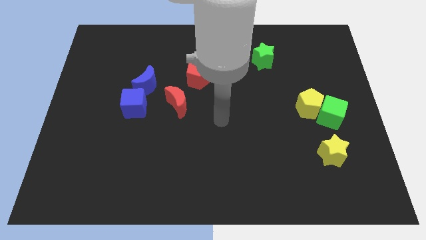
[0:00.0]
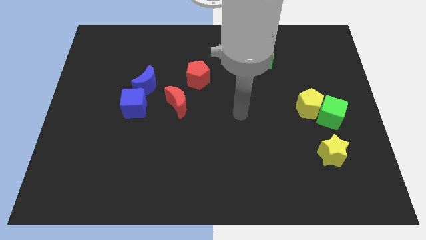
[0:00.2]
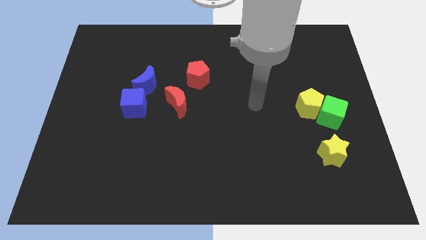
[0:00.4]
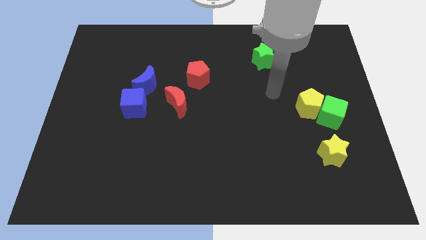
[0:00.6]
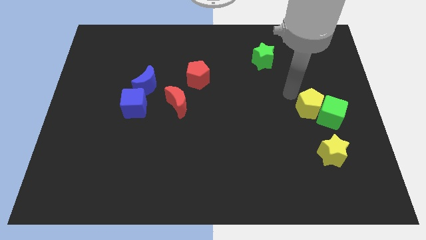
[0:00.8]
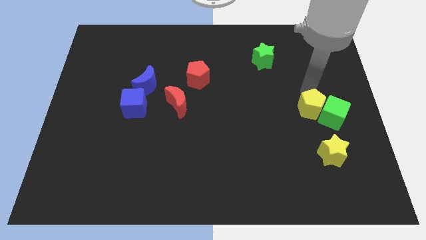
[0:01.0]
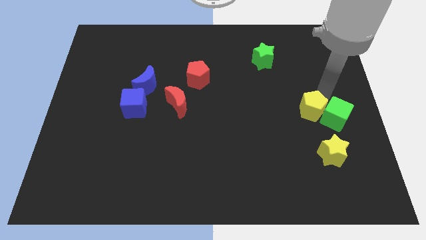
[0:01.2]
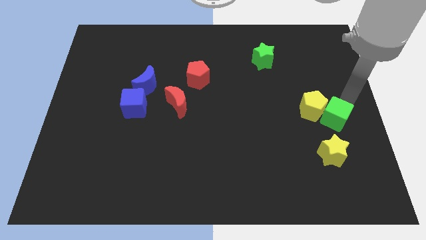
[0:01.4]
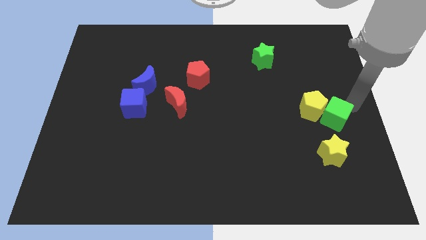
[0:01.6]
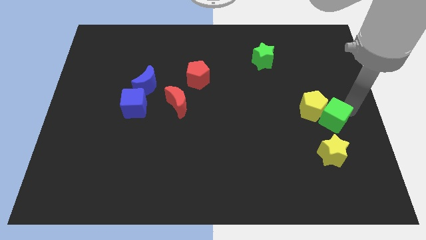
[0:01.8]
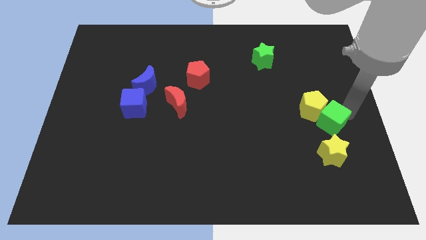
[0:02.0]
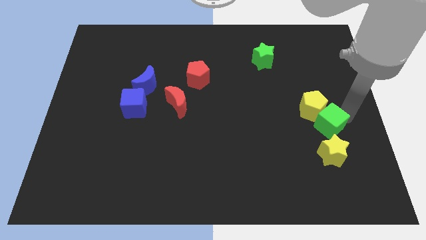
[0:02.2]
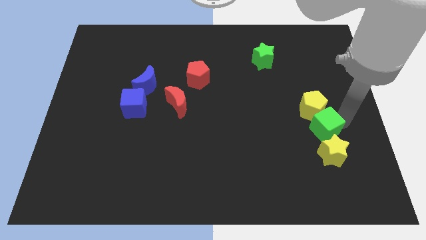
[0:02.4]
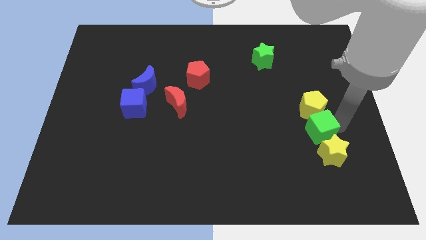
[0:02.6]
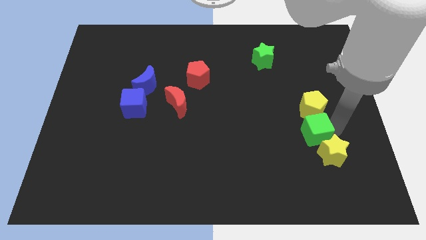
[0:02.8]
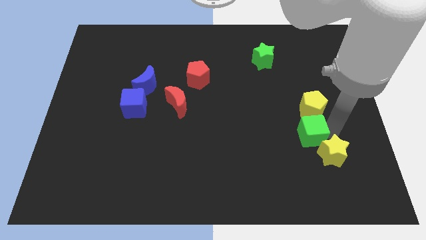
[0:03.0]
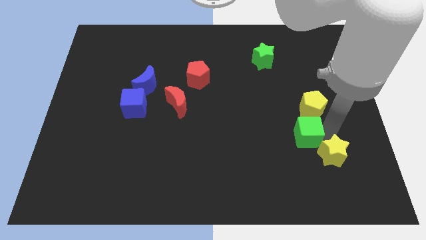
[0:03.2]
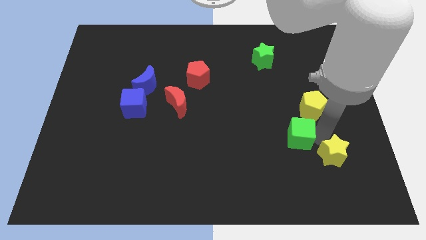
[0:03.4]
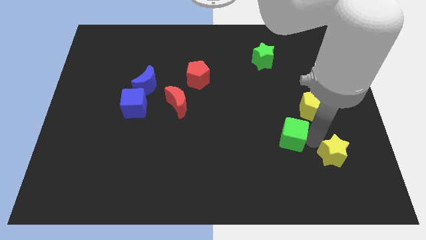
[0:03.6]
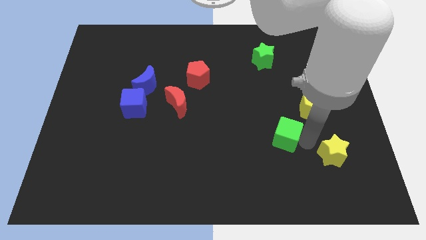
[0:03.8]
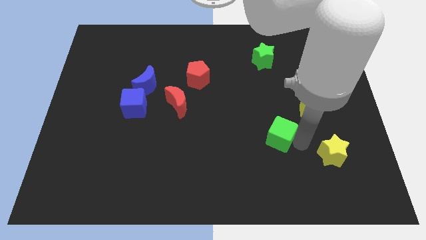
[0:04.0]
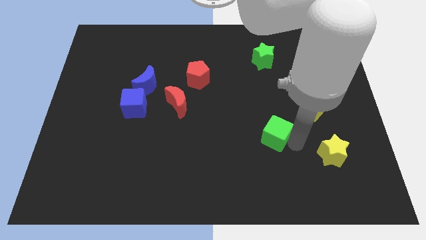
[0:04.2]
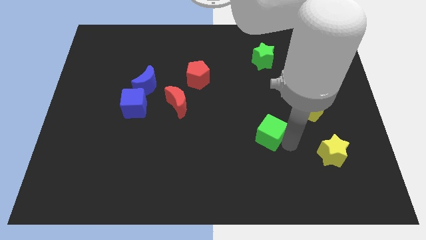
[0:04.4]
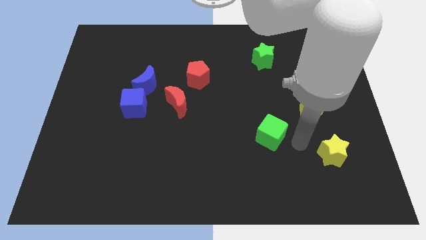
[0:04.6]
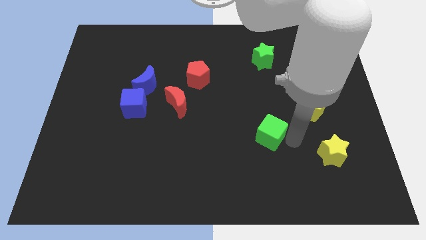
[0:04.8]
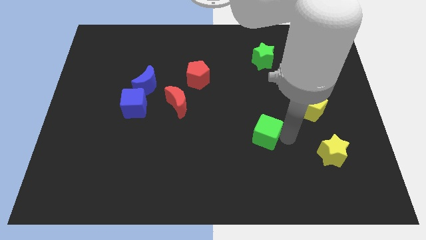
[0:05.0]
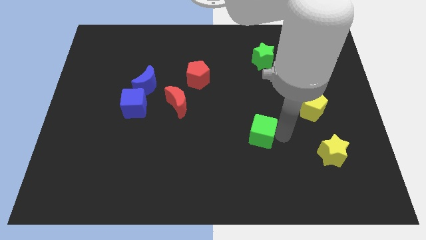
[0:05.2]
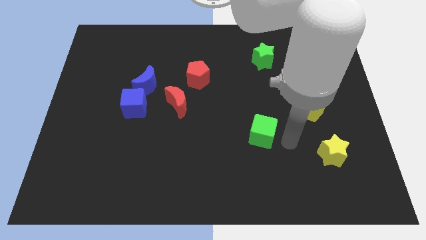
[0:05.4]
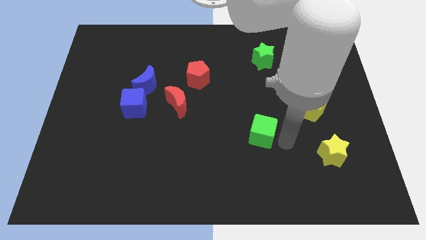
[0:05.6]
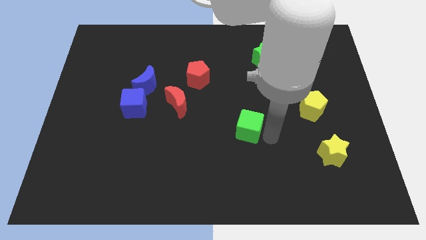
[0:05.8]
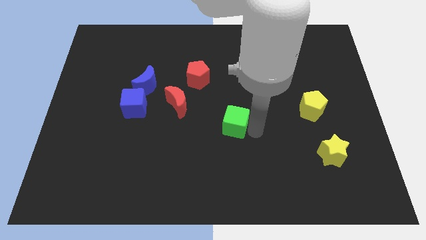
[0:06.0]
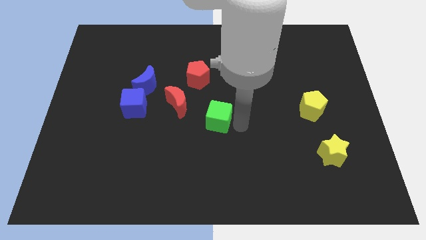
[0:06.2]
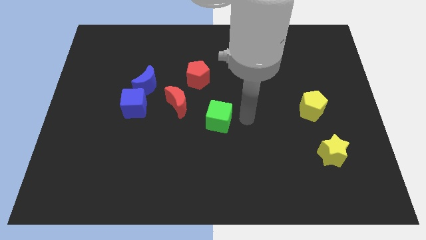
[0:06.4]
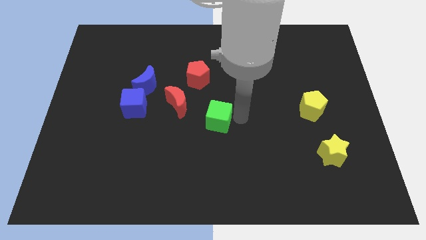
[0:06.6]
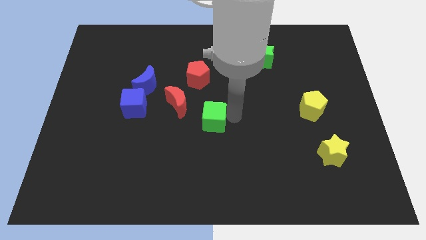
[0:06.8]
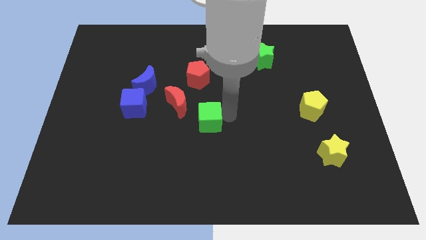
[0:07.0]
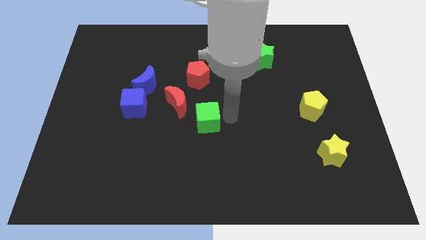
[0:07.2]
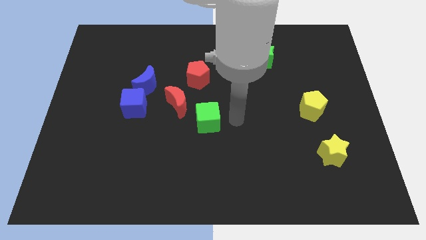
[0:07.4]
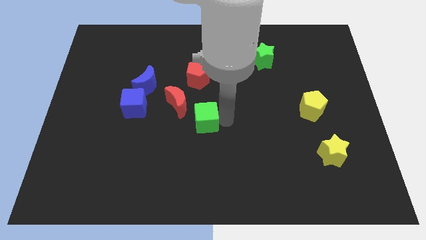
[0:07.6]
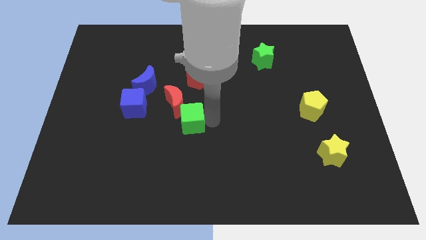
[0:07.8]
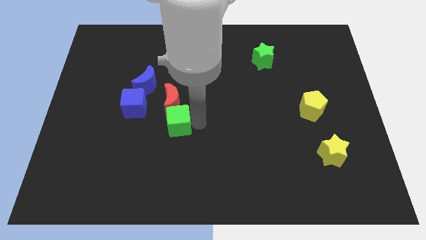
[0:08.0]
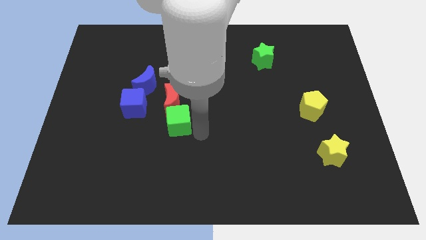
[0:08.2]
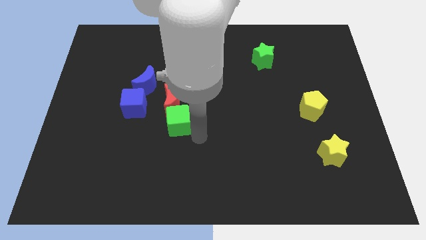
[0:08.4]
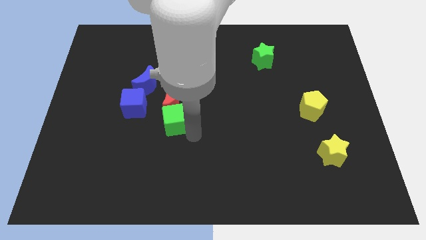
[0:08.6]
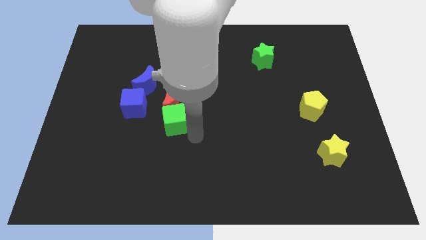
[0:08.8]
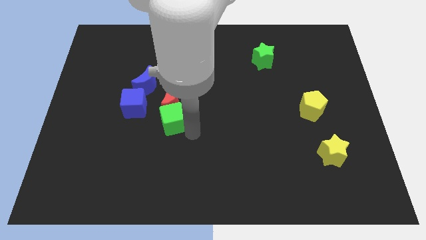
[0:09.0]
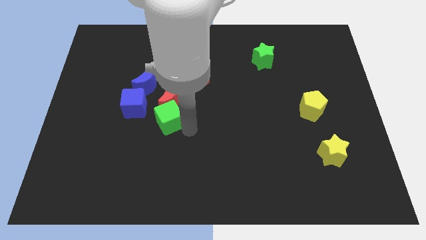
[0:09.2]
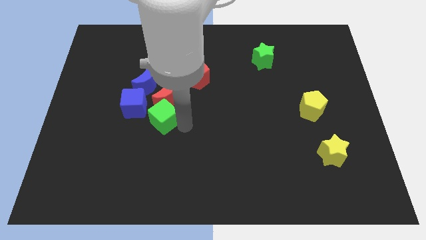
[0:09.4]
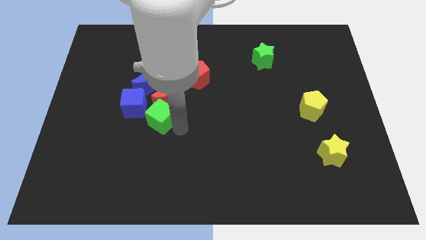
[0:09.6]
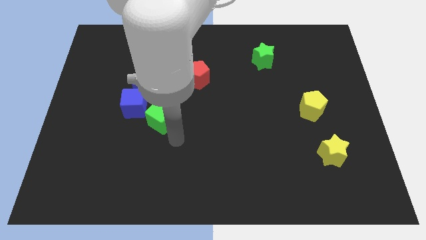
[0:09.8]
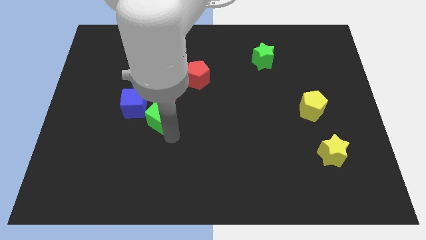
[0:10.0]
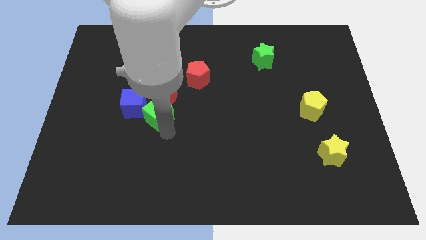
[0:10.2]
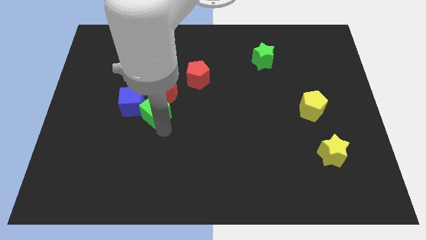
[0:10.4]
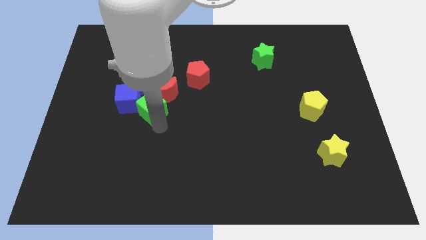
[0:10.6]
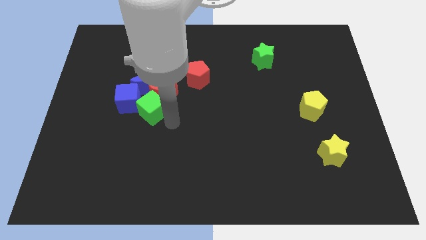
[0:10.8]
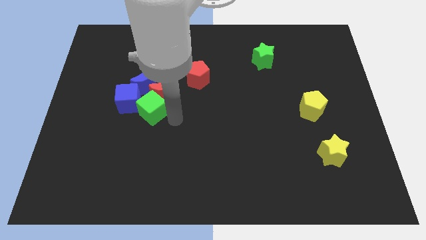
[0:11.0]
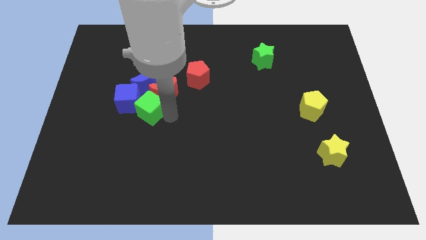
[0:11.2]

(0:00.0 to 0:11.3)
move the green cube next to the blue cube

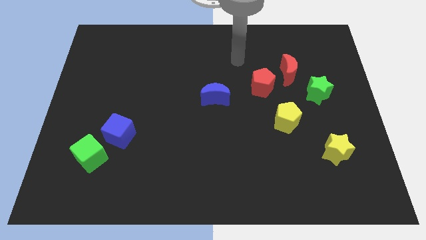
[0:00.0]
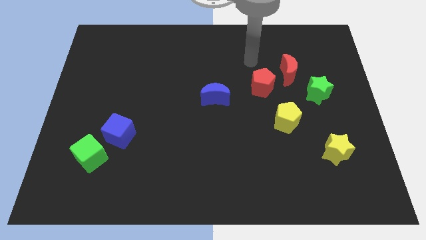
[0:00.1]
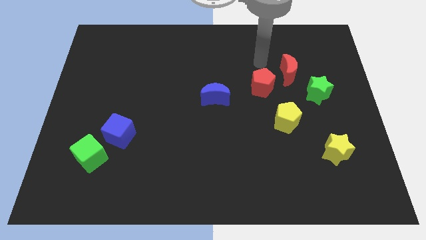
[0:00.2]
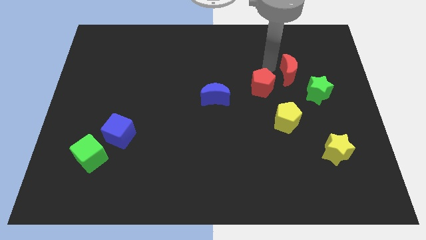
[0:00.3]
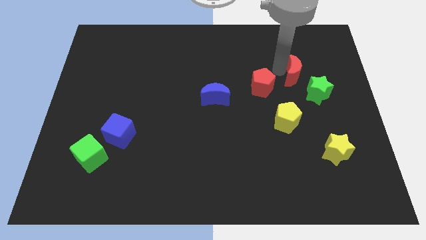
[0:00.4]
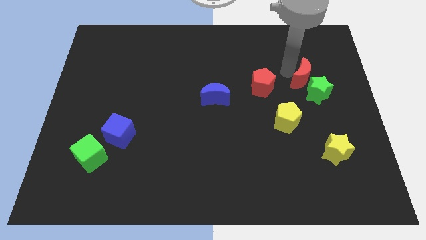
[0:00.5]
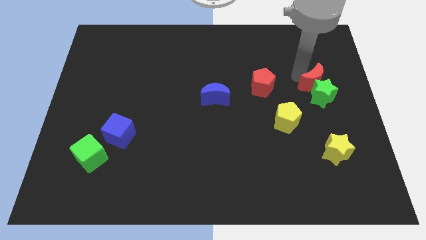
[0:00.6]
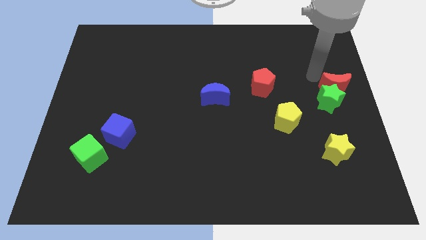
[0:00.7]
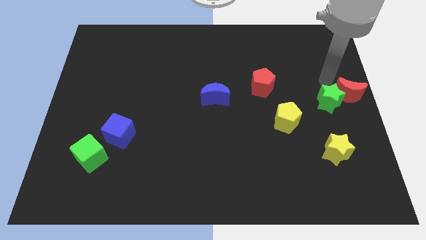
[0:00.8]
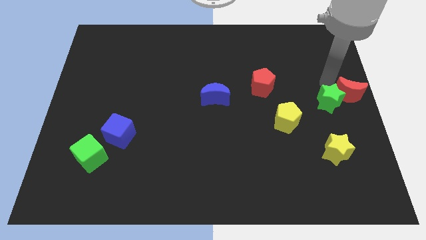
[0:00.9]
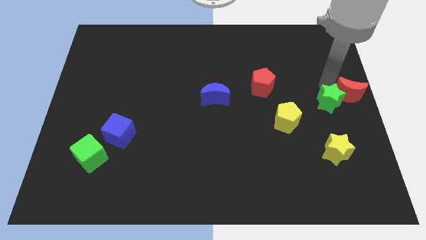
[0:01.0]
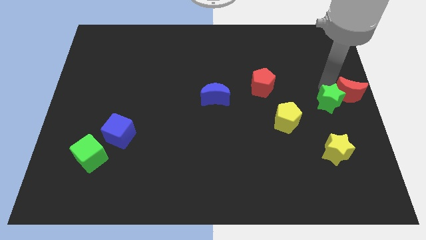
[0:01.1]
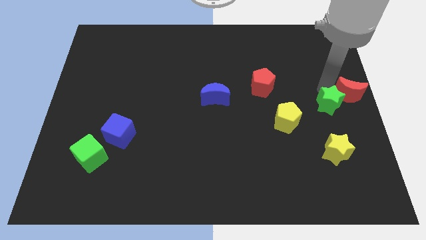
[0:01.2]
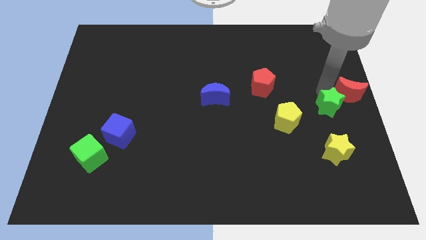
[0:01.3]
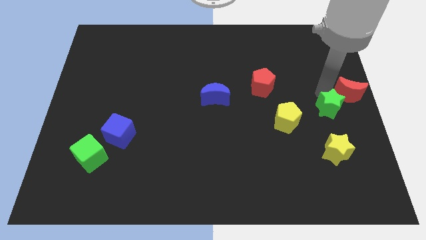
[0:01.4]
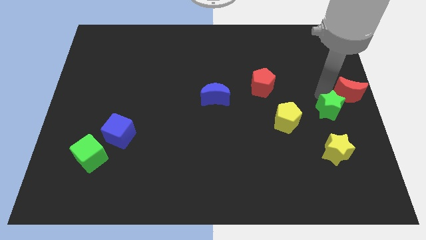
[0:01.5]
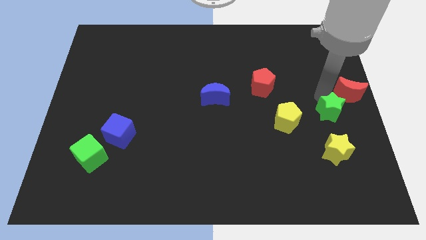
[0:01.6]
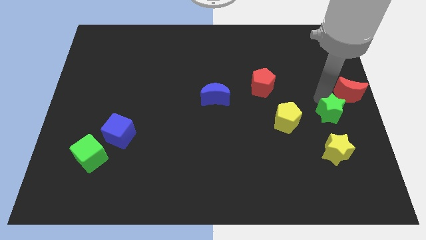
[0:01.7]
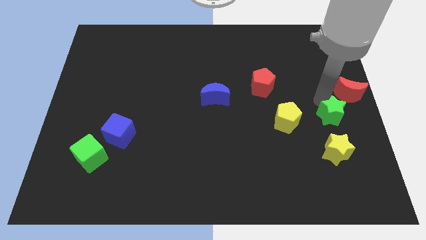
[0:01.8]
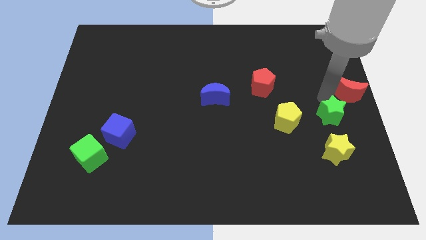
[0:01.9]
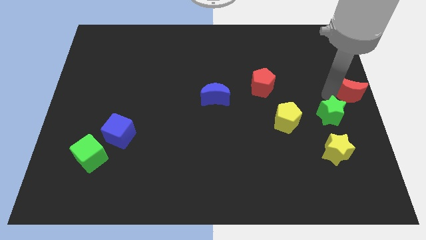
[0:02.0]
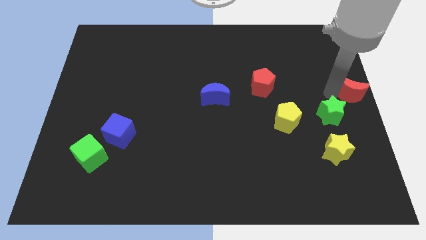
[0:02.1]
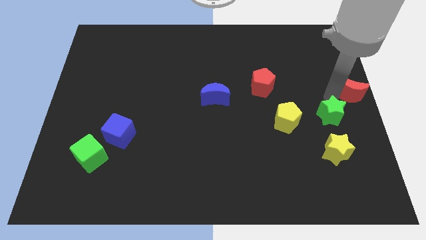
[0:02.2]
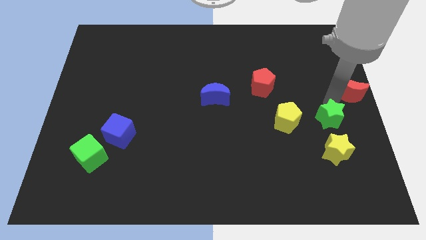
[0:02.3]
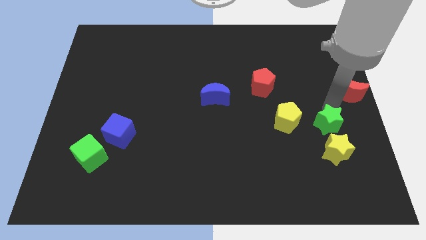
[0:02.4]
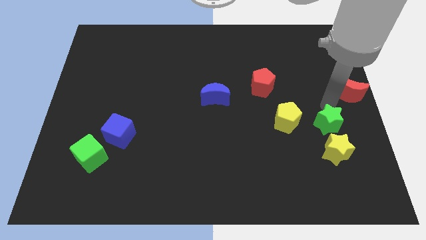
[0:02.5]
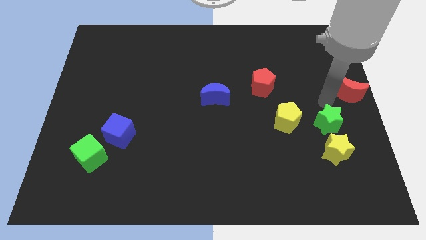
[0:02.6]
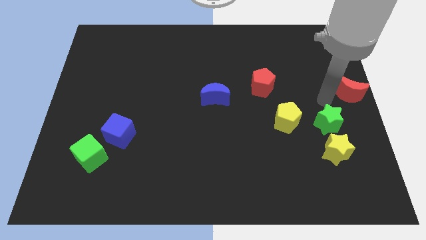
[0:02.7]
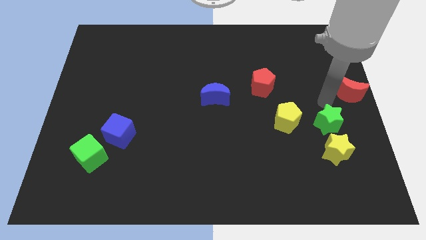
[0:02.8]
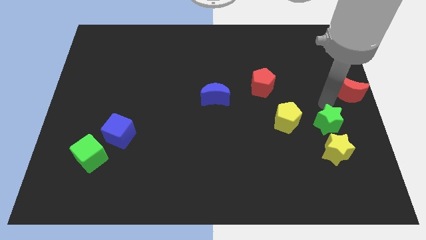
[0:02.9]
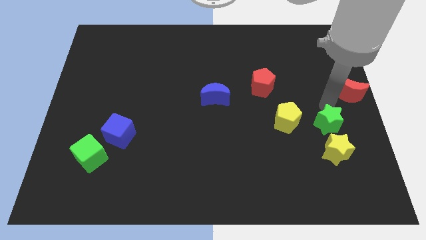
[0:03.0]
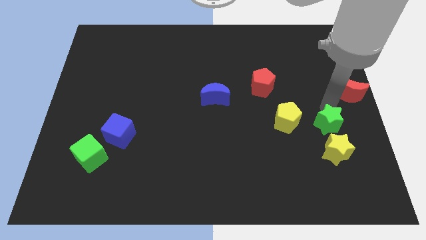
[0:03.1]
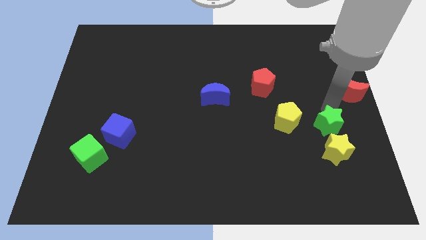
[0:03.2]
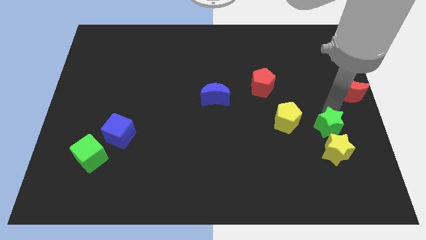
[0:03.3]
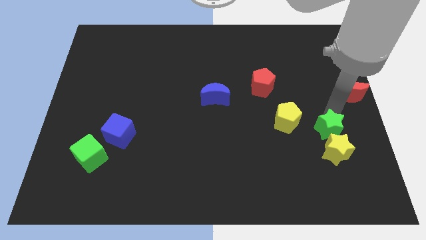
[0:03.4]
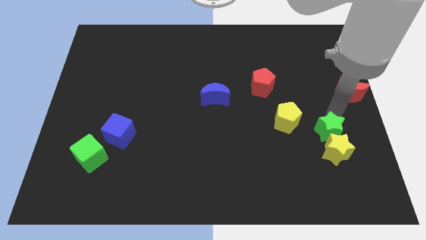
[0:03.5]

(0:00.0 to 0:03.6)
slide the green star towards the yellow star
